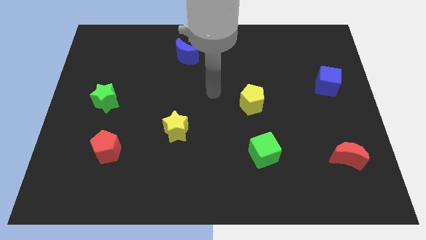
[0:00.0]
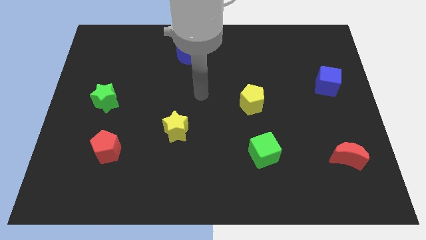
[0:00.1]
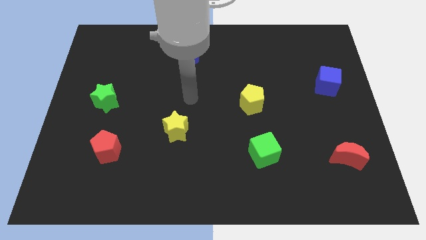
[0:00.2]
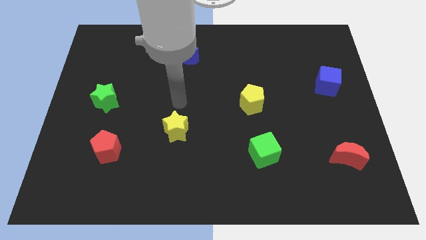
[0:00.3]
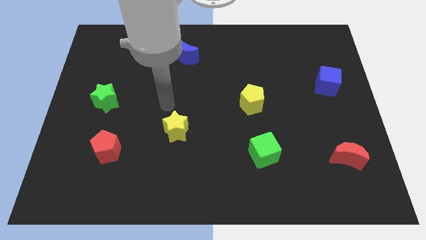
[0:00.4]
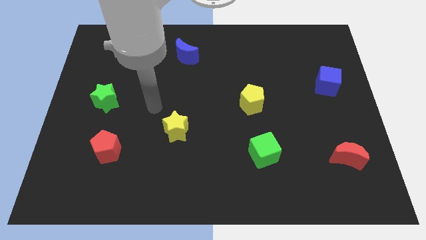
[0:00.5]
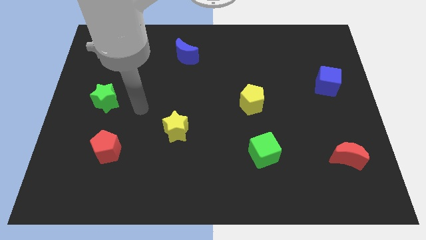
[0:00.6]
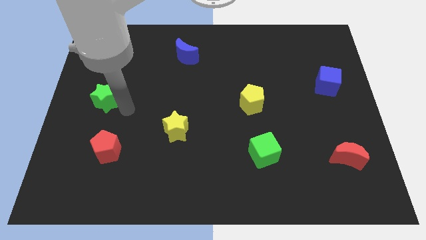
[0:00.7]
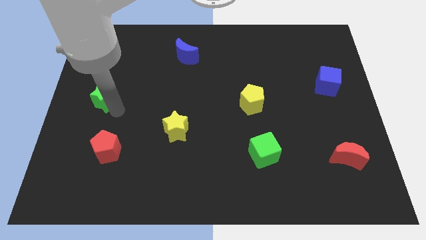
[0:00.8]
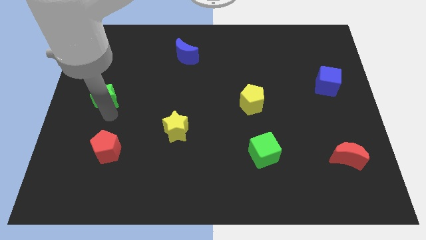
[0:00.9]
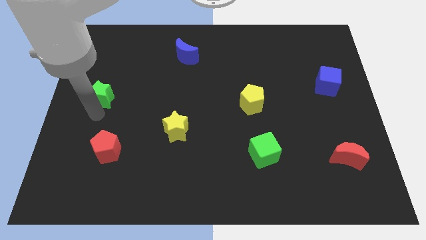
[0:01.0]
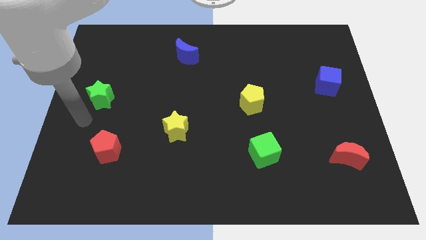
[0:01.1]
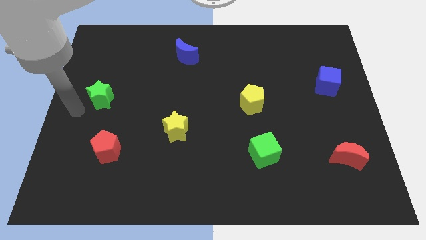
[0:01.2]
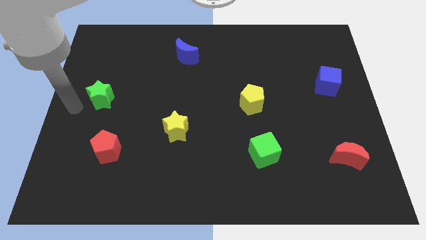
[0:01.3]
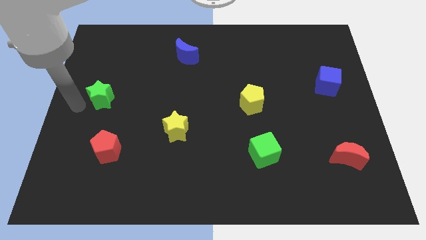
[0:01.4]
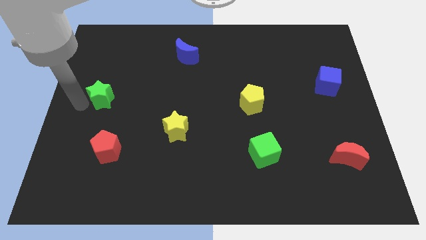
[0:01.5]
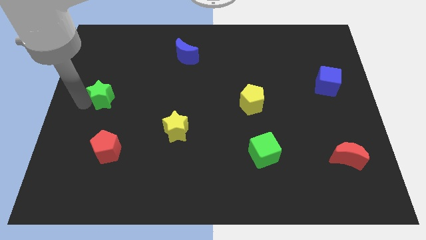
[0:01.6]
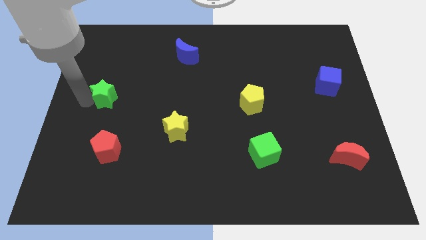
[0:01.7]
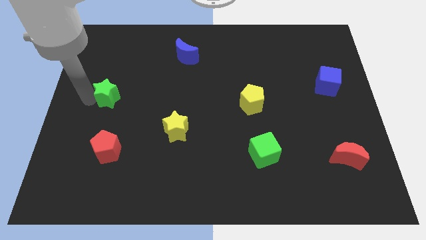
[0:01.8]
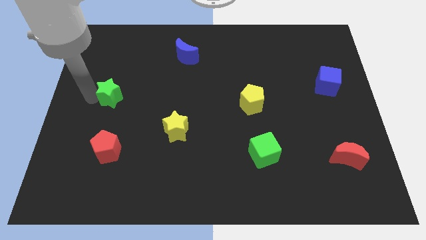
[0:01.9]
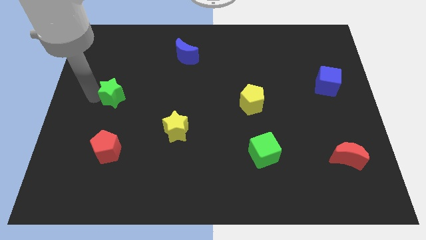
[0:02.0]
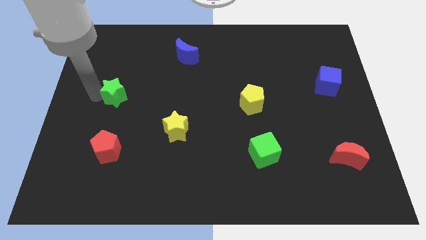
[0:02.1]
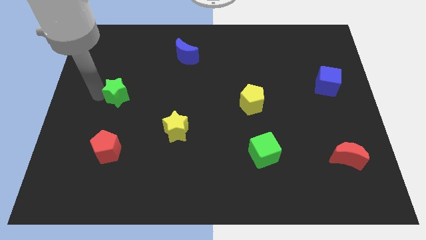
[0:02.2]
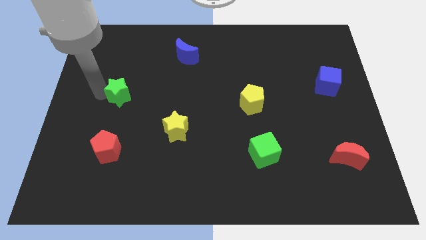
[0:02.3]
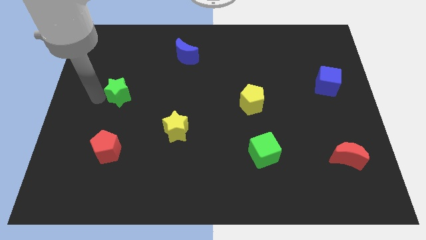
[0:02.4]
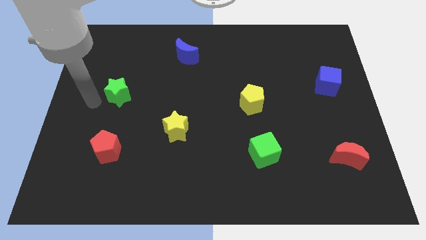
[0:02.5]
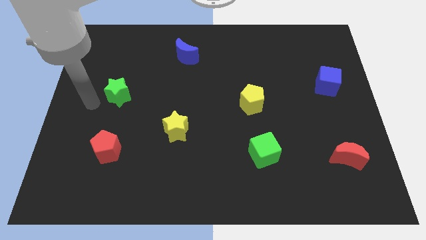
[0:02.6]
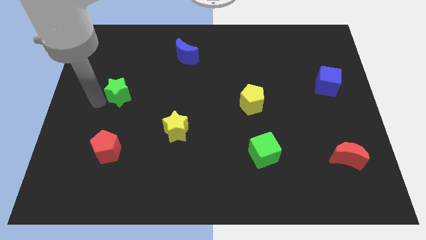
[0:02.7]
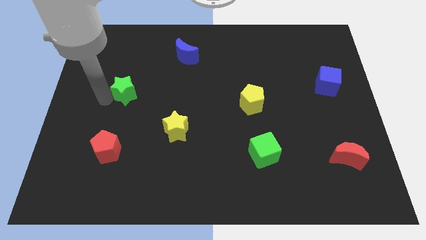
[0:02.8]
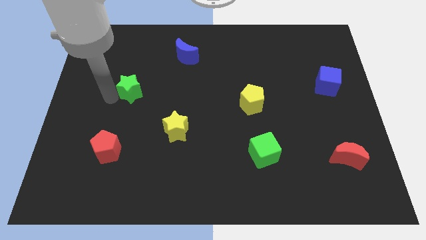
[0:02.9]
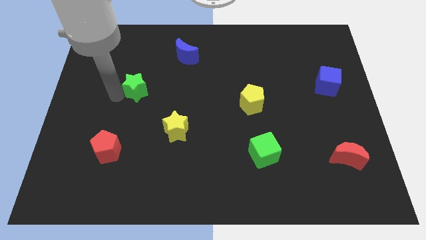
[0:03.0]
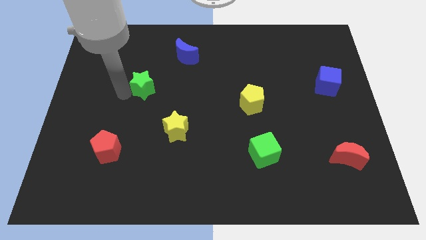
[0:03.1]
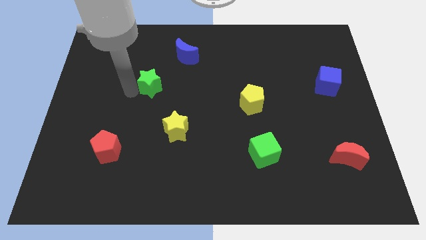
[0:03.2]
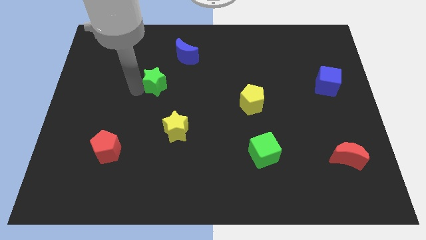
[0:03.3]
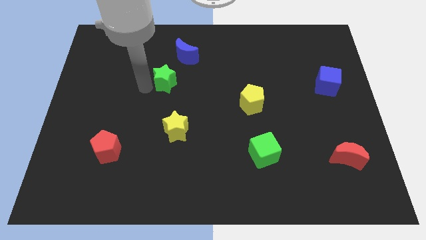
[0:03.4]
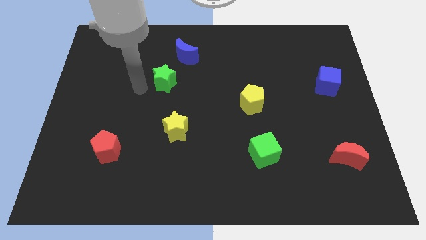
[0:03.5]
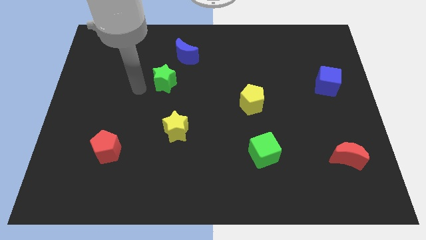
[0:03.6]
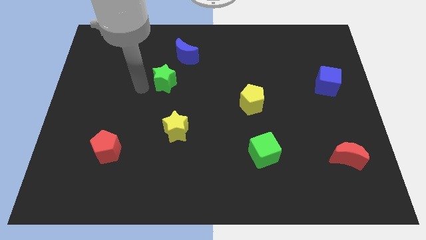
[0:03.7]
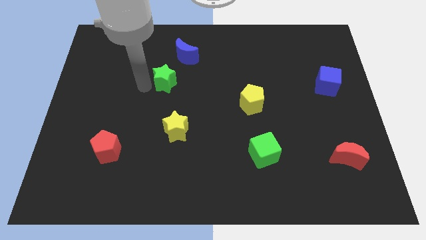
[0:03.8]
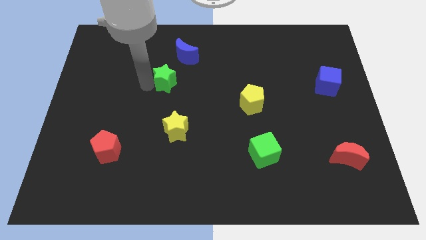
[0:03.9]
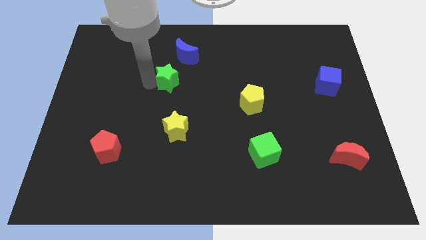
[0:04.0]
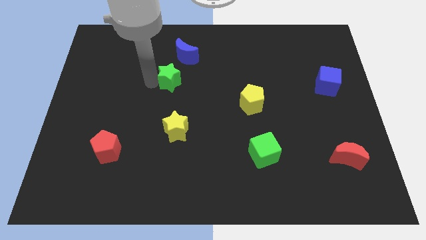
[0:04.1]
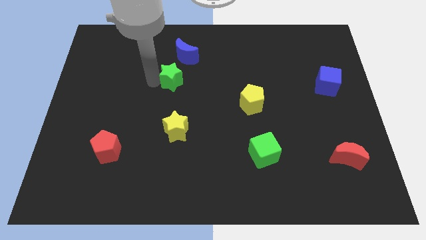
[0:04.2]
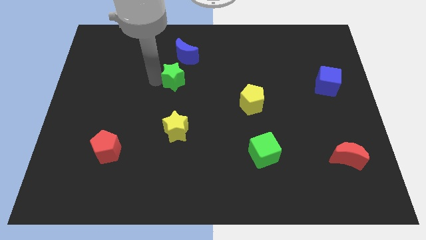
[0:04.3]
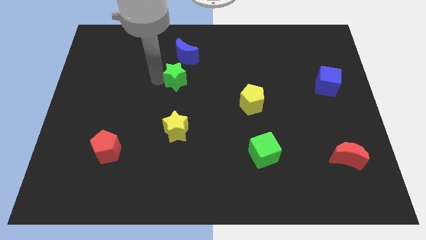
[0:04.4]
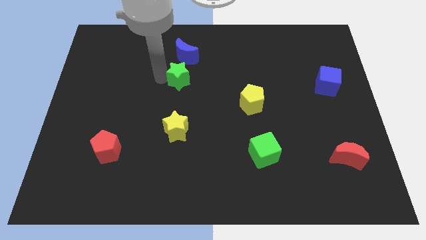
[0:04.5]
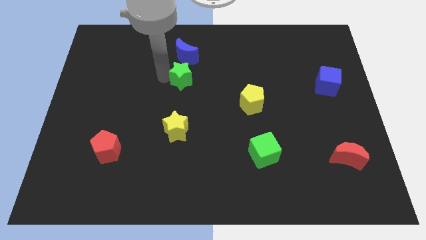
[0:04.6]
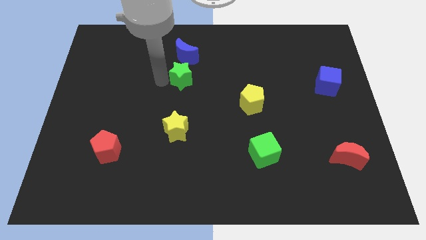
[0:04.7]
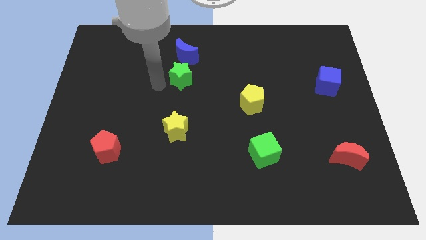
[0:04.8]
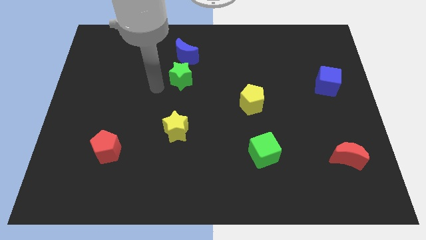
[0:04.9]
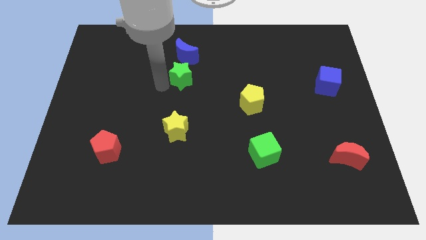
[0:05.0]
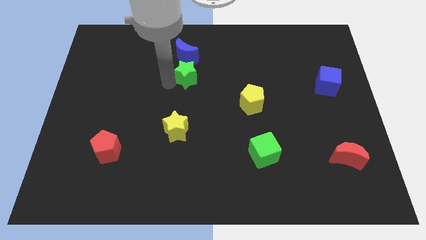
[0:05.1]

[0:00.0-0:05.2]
slide the green star to the bottom right of the blue moon

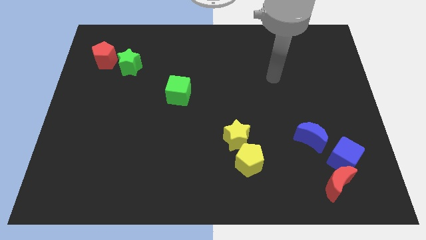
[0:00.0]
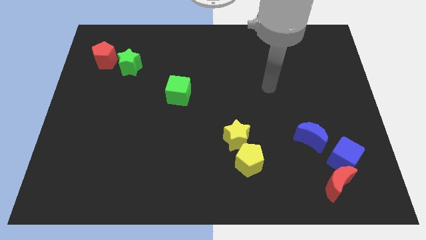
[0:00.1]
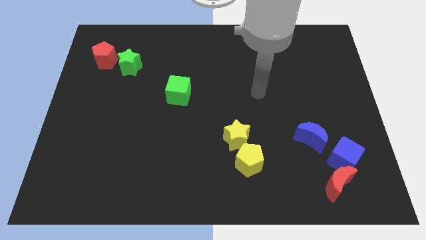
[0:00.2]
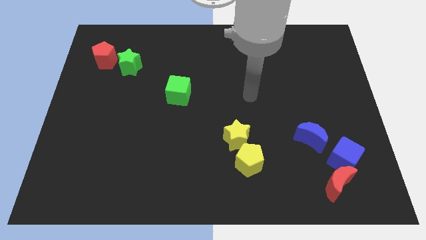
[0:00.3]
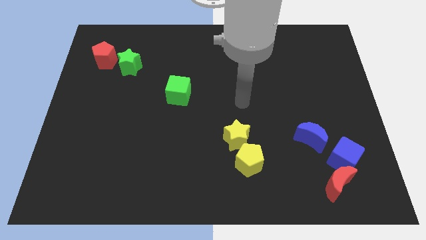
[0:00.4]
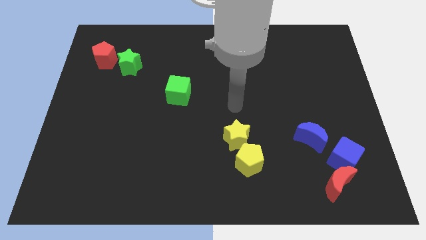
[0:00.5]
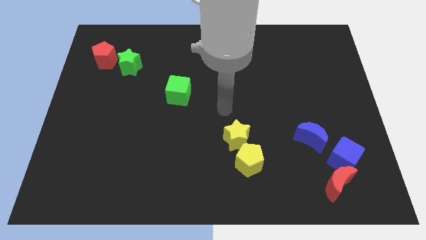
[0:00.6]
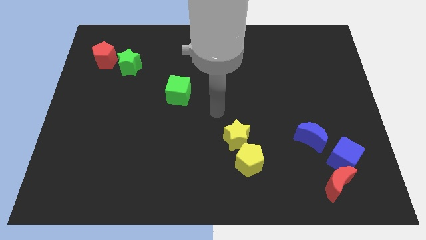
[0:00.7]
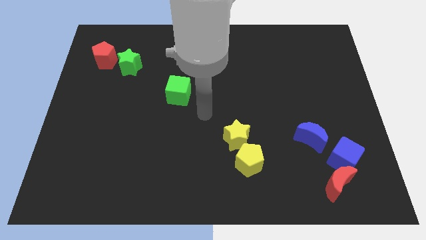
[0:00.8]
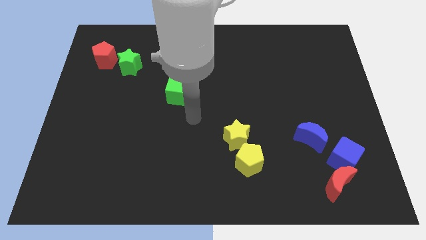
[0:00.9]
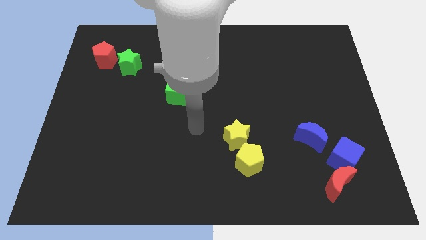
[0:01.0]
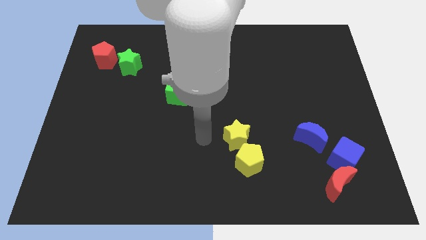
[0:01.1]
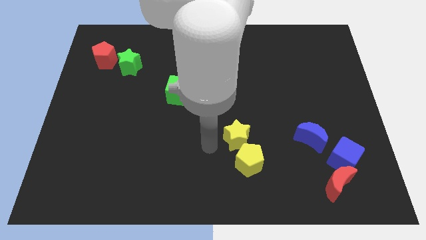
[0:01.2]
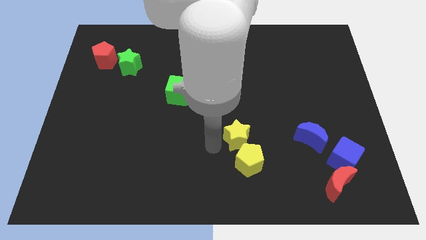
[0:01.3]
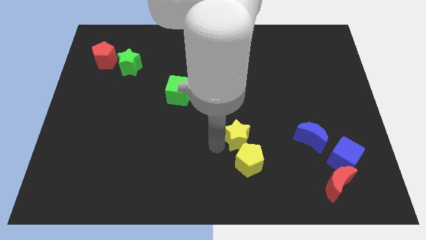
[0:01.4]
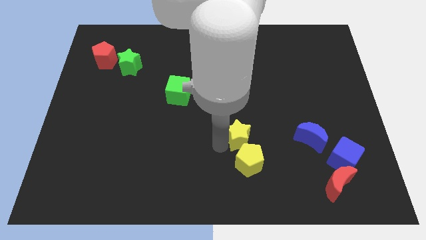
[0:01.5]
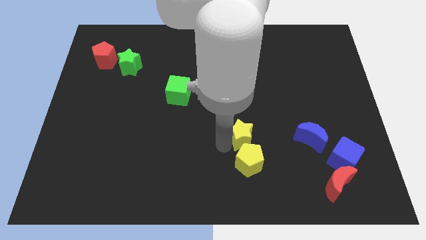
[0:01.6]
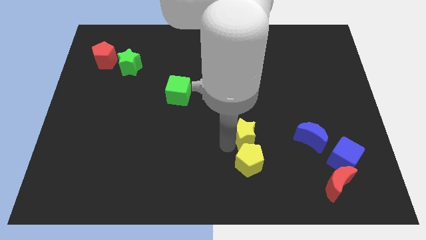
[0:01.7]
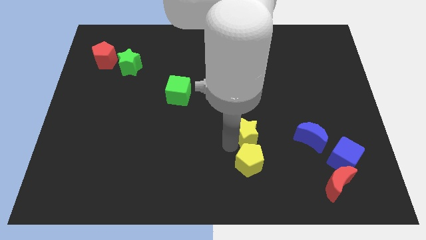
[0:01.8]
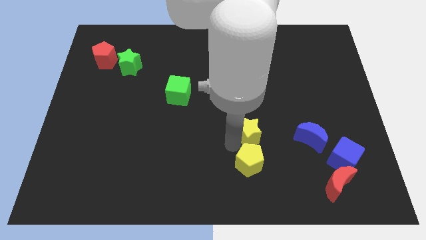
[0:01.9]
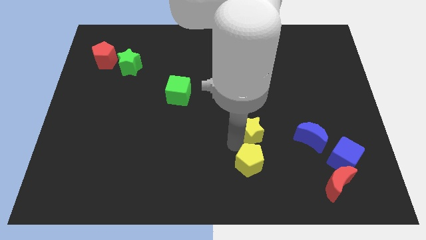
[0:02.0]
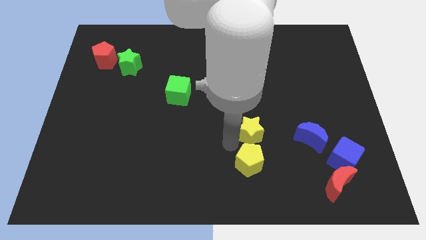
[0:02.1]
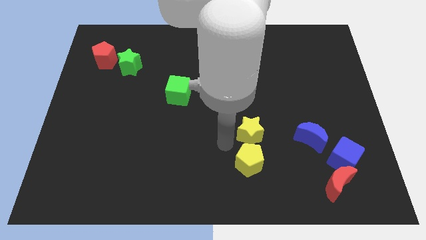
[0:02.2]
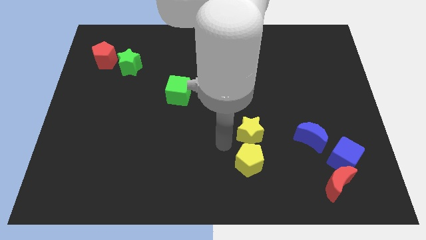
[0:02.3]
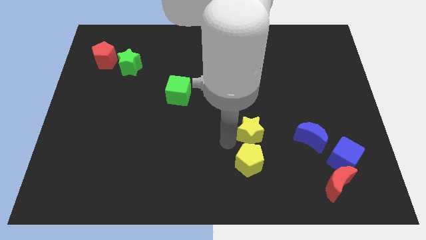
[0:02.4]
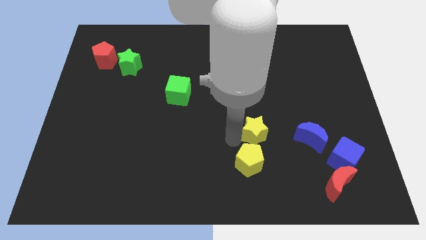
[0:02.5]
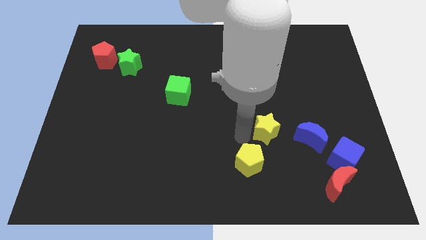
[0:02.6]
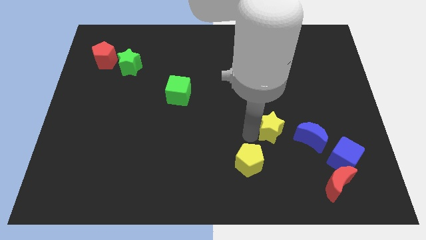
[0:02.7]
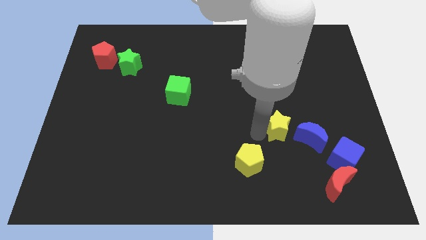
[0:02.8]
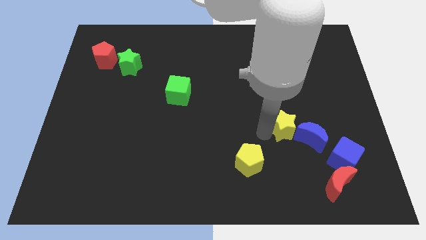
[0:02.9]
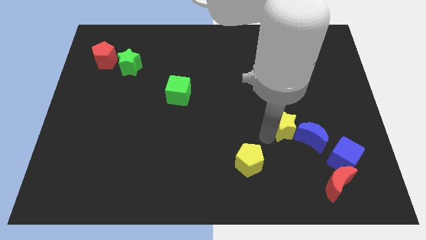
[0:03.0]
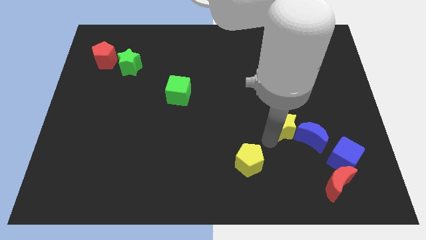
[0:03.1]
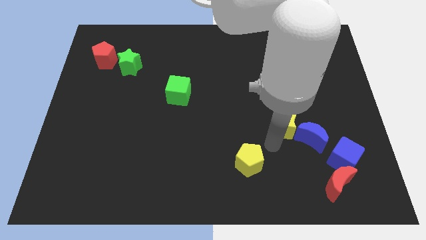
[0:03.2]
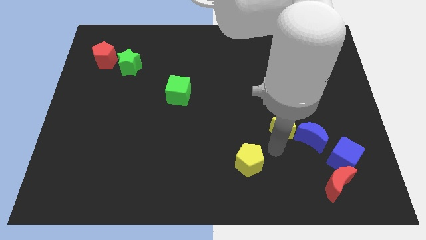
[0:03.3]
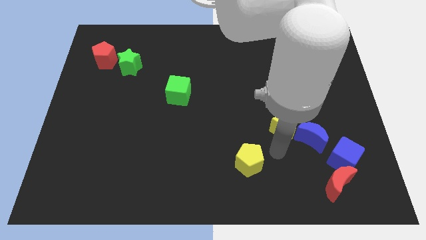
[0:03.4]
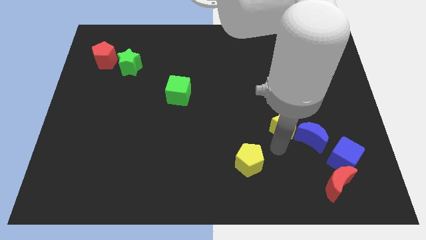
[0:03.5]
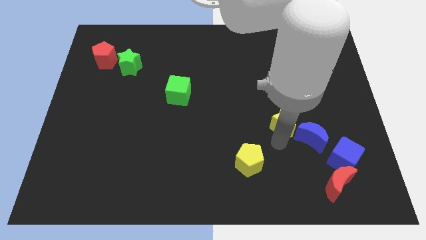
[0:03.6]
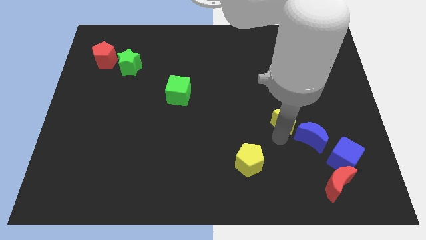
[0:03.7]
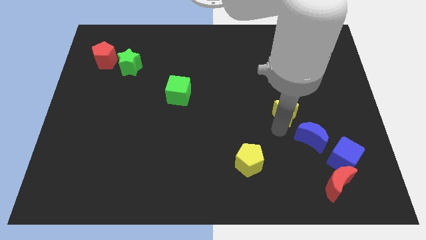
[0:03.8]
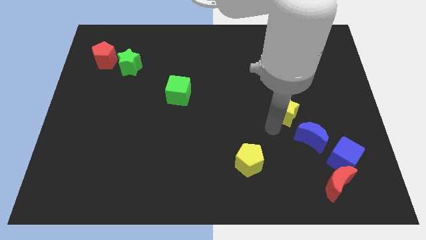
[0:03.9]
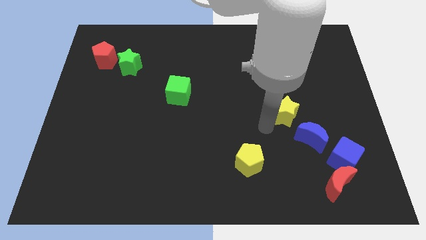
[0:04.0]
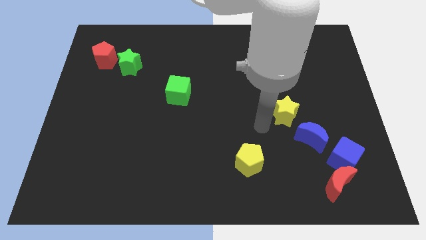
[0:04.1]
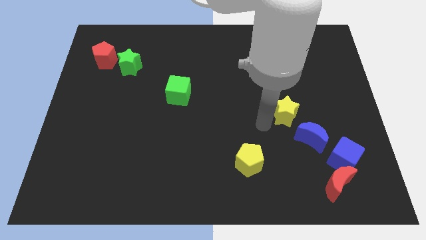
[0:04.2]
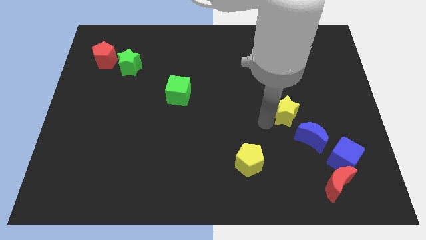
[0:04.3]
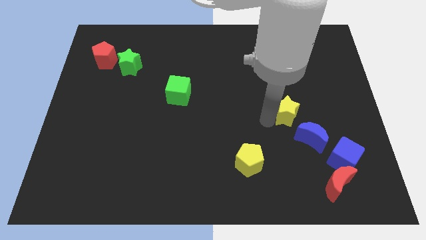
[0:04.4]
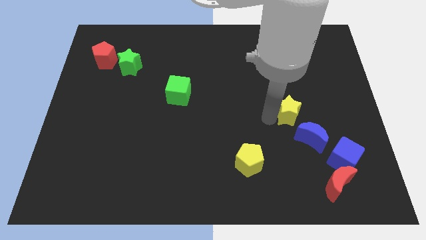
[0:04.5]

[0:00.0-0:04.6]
put the yellow star to the top of the blue moon
